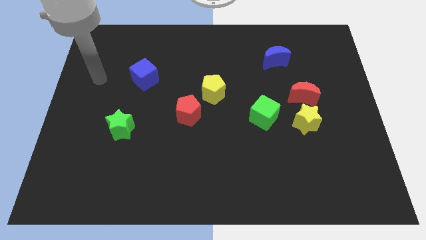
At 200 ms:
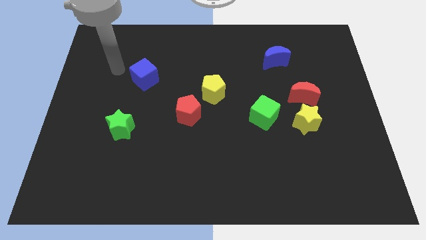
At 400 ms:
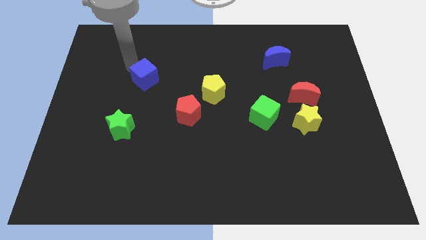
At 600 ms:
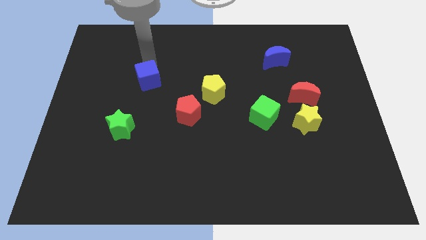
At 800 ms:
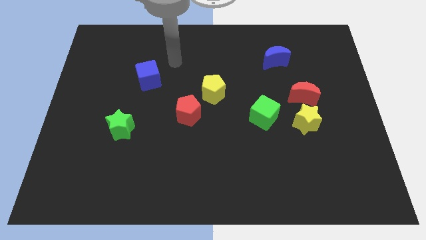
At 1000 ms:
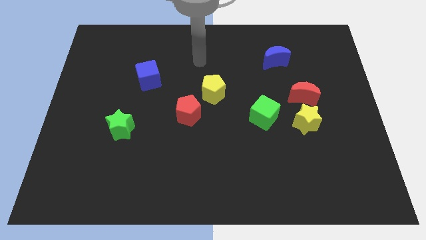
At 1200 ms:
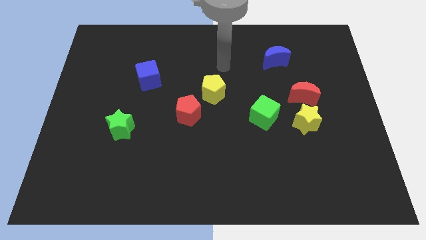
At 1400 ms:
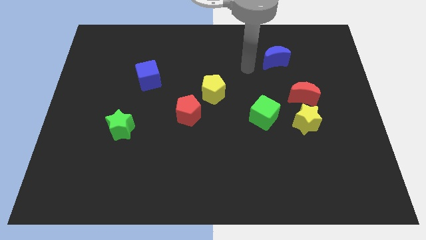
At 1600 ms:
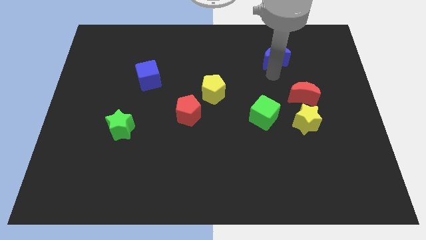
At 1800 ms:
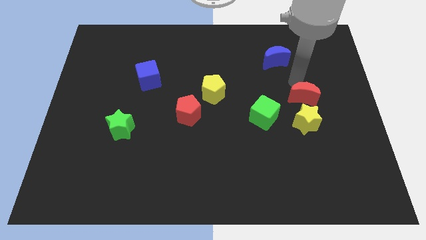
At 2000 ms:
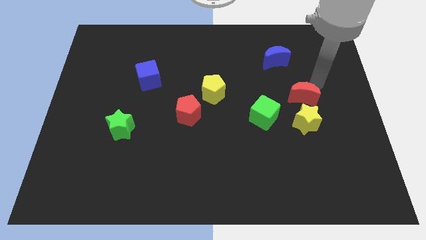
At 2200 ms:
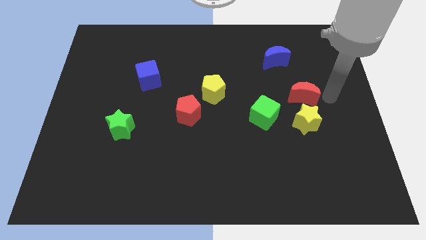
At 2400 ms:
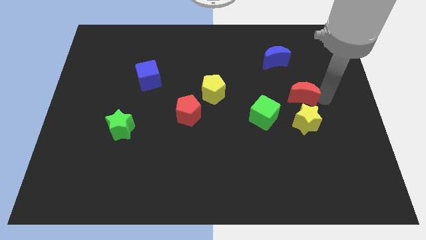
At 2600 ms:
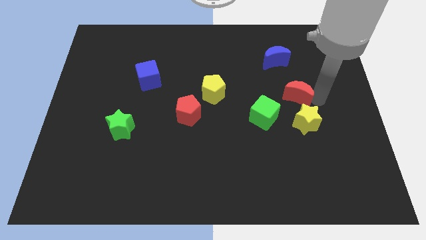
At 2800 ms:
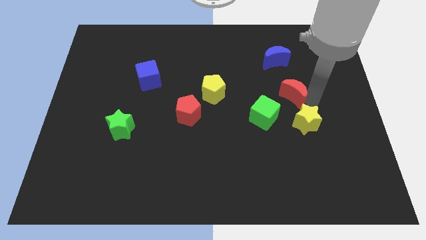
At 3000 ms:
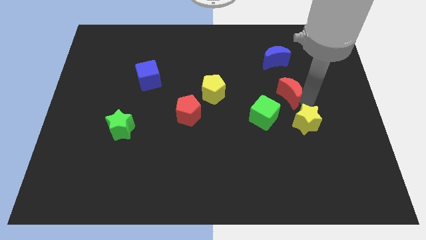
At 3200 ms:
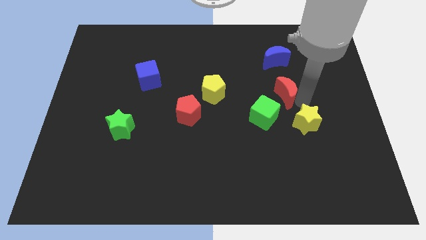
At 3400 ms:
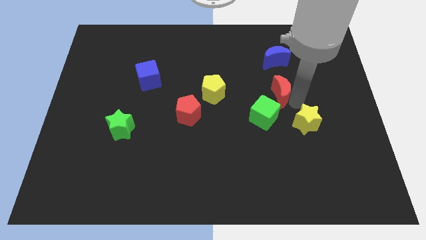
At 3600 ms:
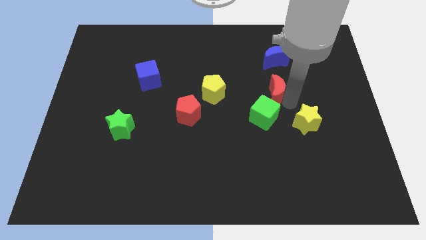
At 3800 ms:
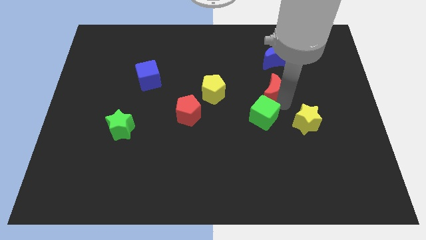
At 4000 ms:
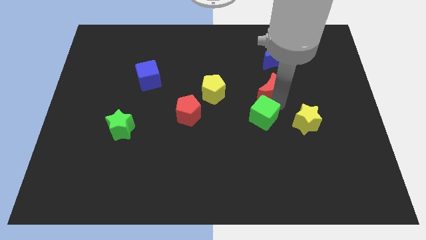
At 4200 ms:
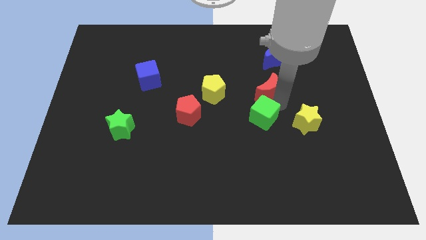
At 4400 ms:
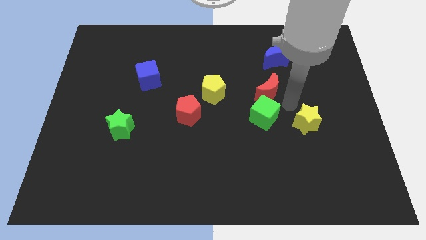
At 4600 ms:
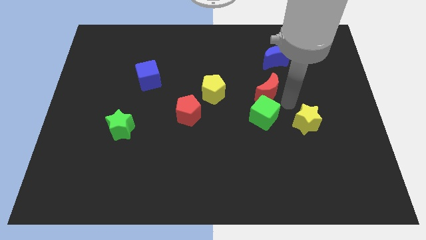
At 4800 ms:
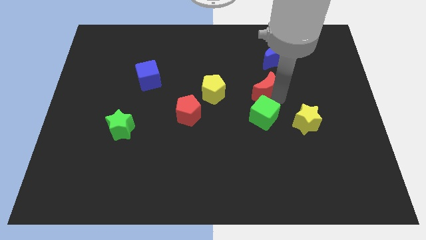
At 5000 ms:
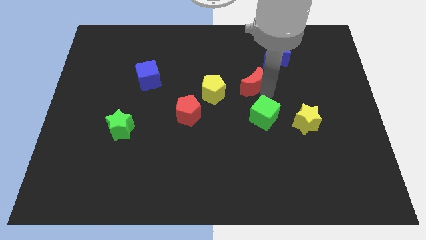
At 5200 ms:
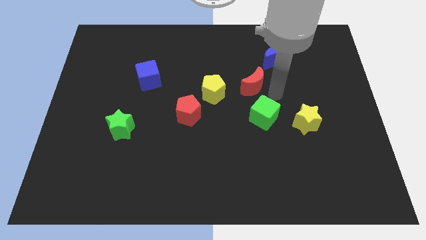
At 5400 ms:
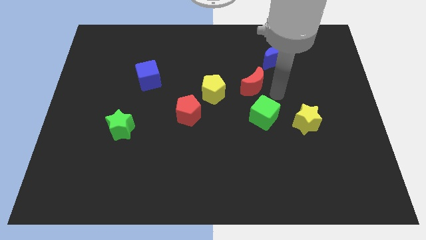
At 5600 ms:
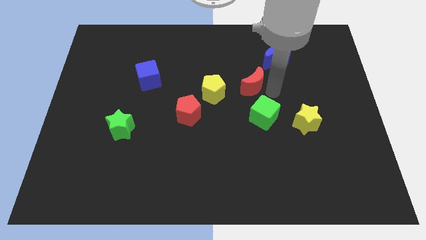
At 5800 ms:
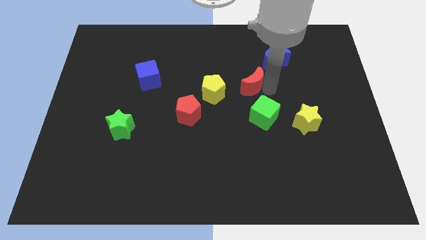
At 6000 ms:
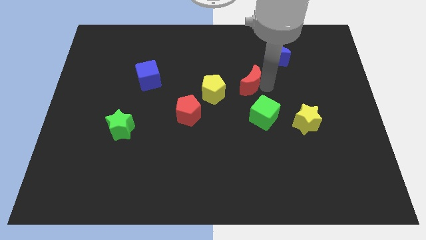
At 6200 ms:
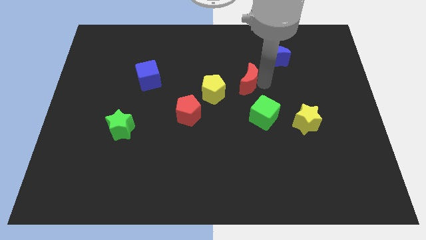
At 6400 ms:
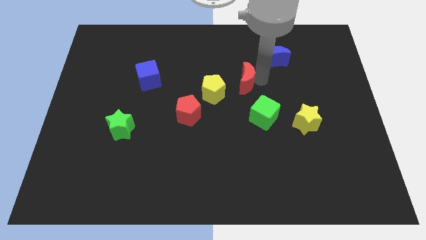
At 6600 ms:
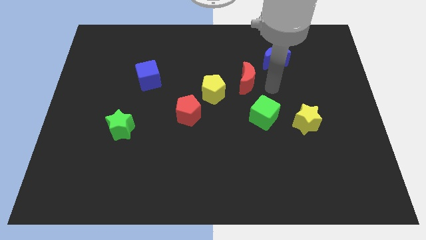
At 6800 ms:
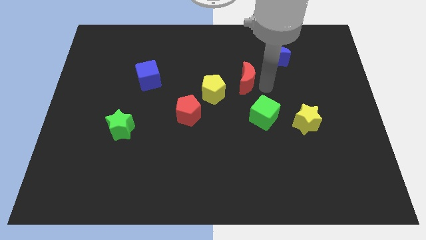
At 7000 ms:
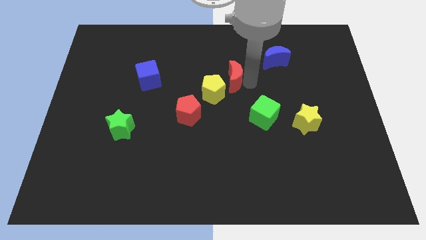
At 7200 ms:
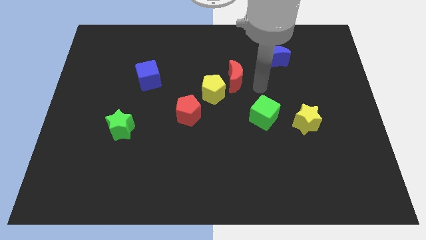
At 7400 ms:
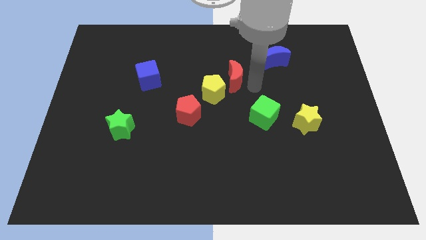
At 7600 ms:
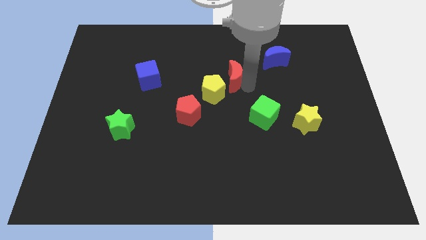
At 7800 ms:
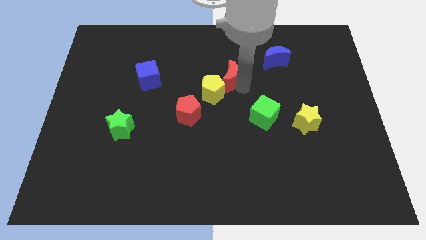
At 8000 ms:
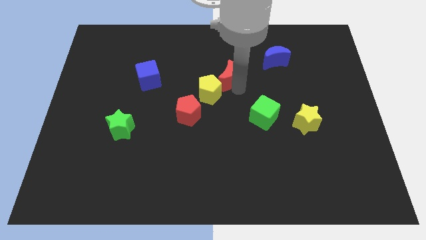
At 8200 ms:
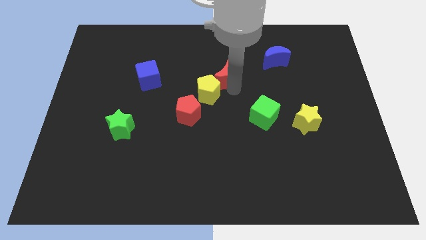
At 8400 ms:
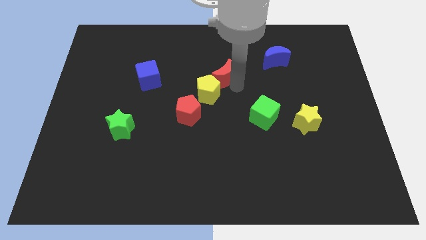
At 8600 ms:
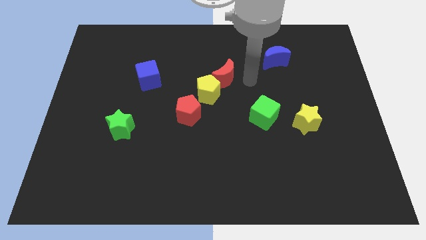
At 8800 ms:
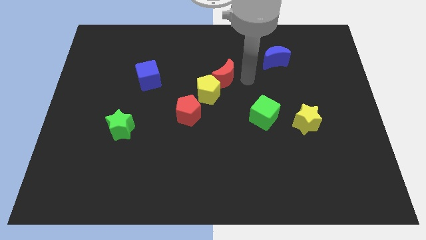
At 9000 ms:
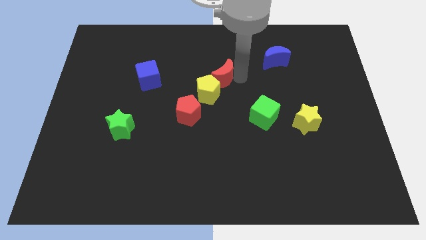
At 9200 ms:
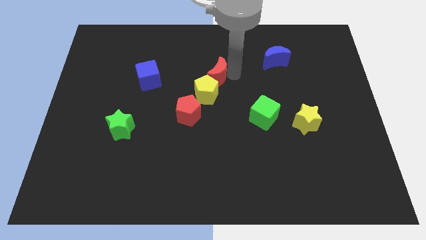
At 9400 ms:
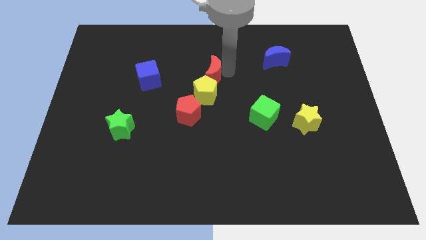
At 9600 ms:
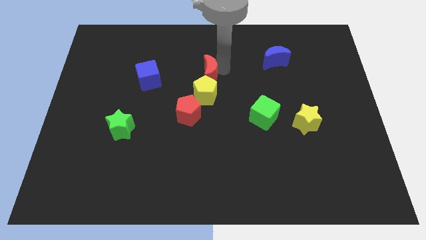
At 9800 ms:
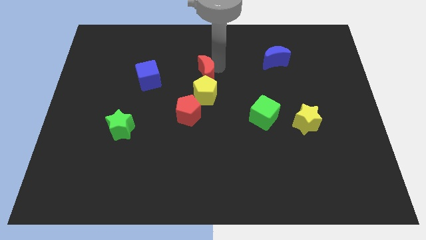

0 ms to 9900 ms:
push the red moon to the top left side of the yellow pentagon

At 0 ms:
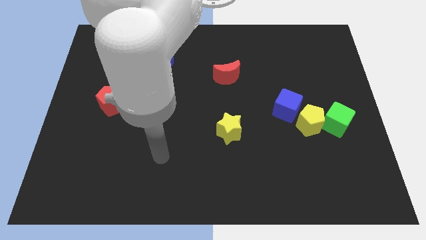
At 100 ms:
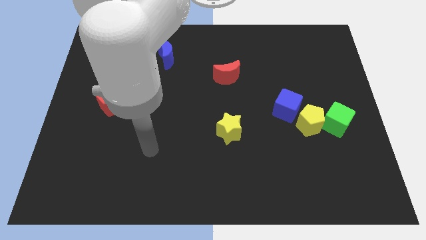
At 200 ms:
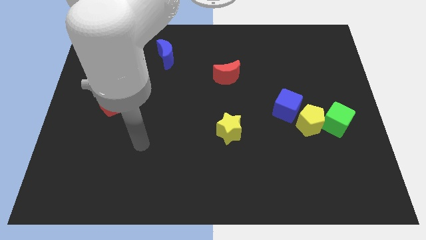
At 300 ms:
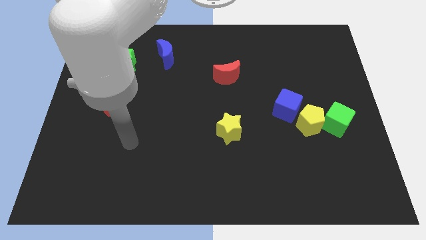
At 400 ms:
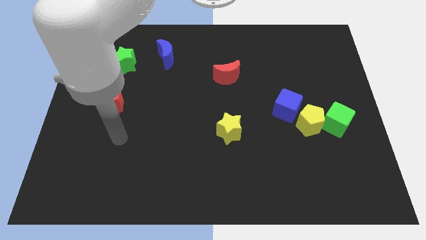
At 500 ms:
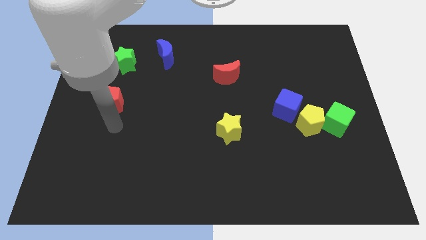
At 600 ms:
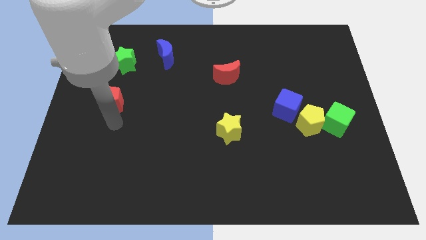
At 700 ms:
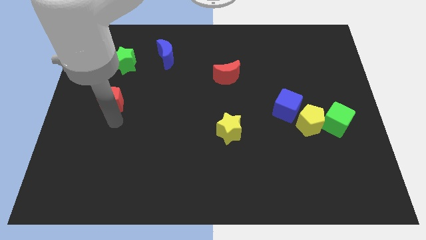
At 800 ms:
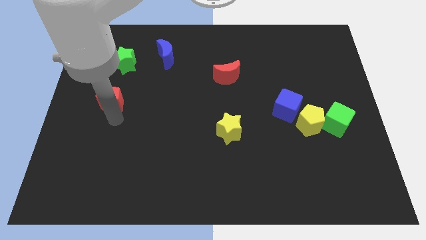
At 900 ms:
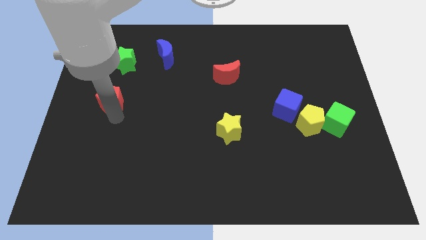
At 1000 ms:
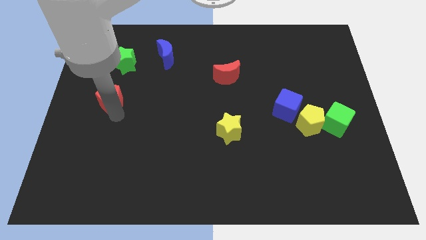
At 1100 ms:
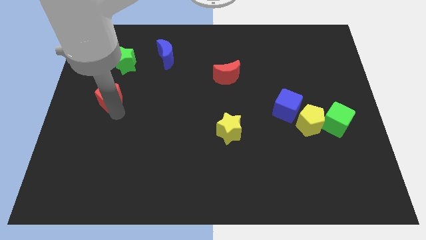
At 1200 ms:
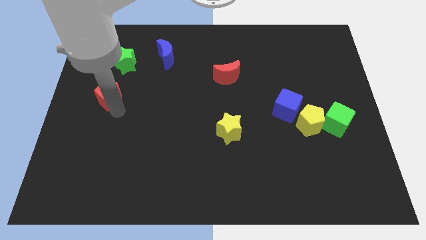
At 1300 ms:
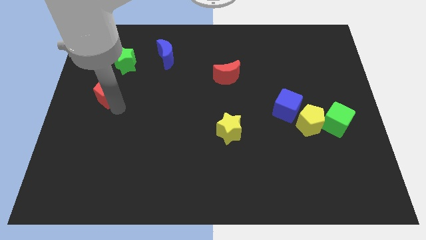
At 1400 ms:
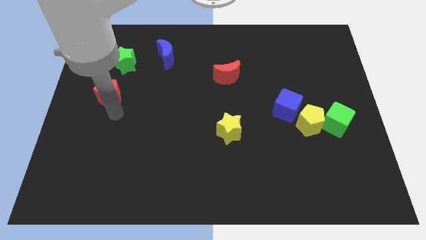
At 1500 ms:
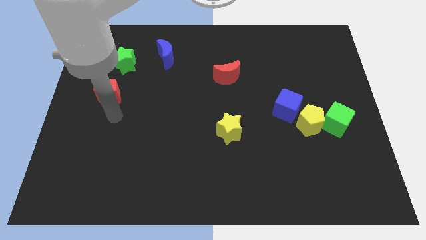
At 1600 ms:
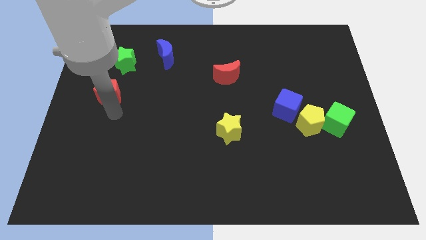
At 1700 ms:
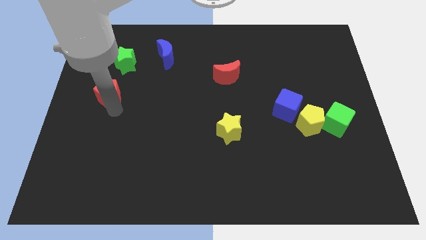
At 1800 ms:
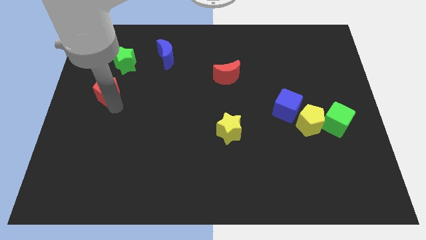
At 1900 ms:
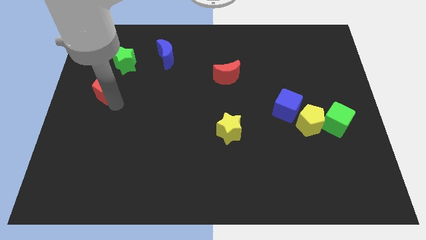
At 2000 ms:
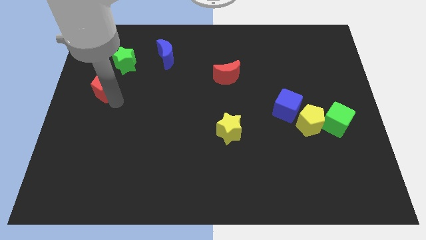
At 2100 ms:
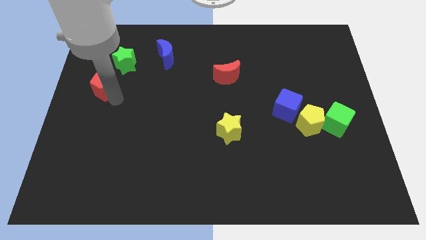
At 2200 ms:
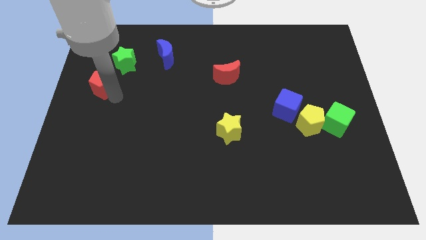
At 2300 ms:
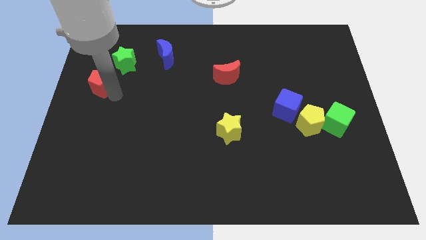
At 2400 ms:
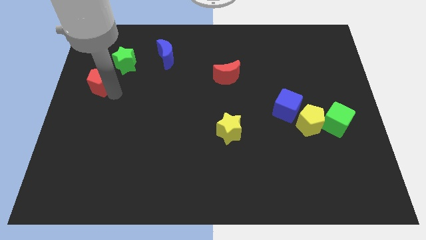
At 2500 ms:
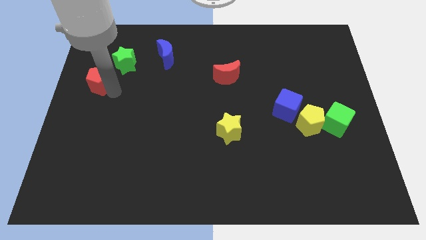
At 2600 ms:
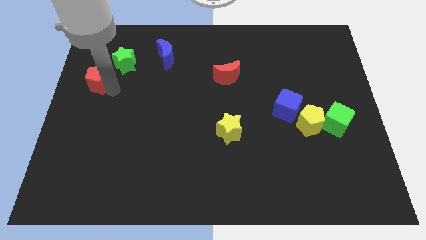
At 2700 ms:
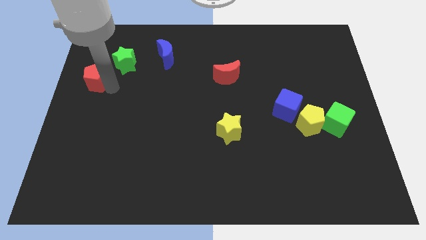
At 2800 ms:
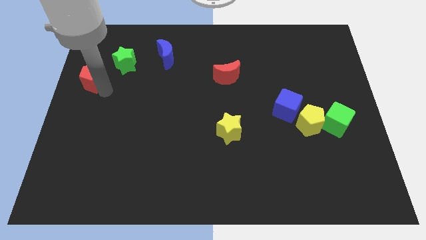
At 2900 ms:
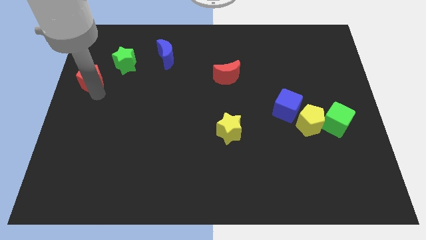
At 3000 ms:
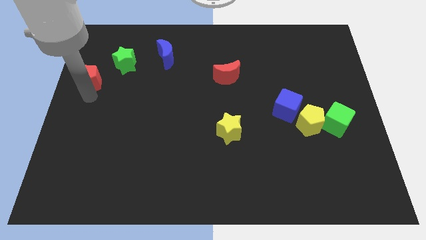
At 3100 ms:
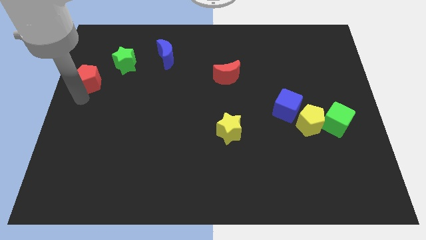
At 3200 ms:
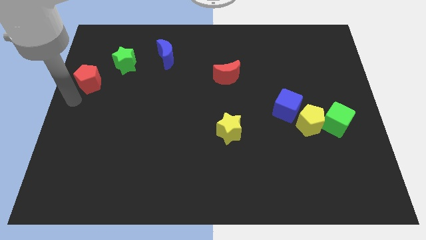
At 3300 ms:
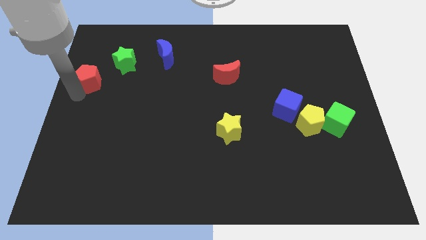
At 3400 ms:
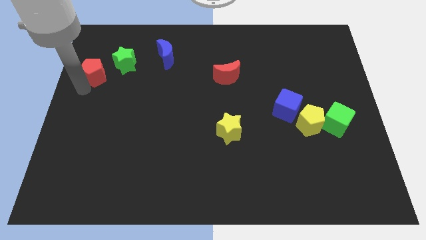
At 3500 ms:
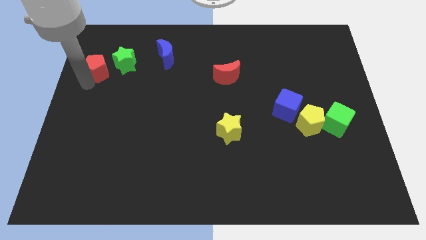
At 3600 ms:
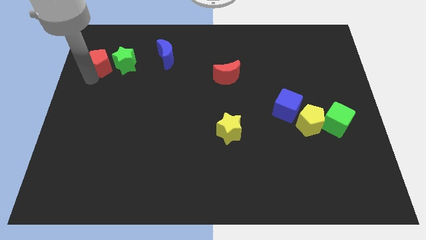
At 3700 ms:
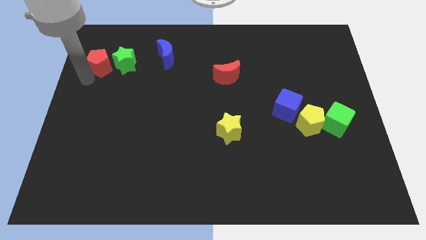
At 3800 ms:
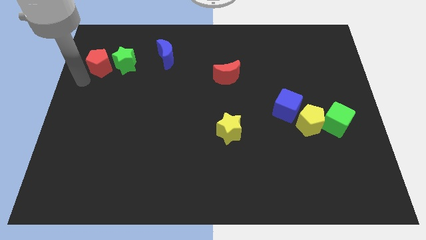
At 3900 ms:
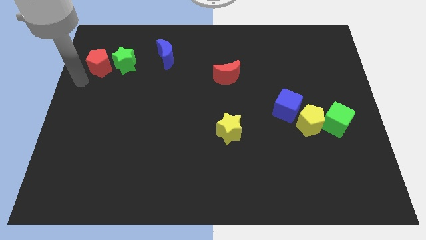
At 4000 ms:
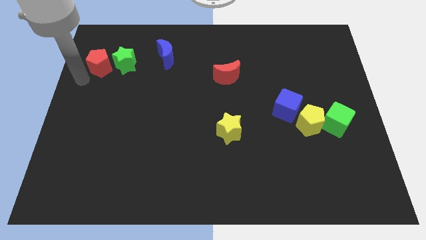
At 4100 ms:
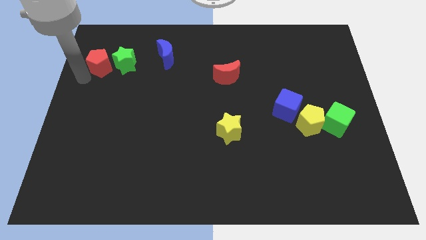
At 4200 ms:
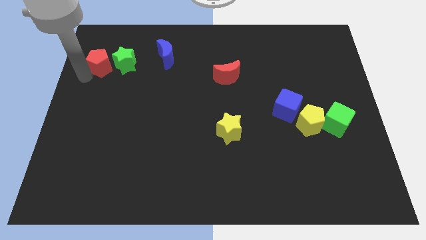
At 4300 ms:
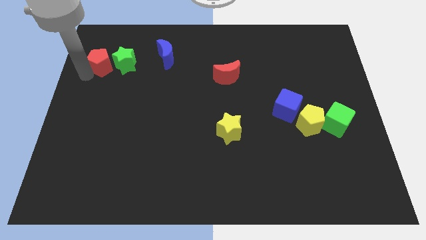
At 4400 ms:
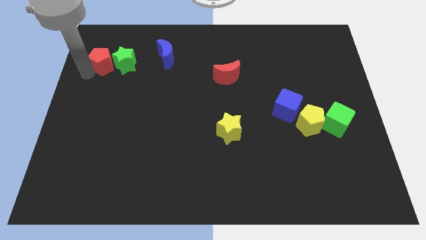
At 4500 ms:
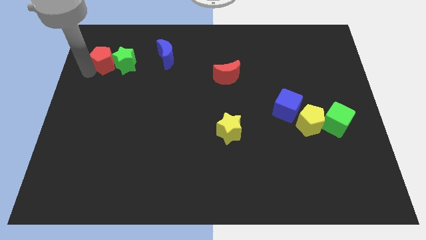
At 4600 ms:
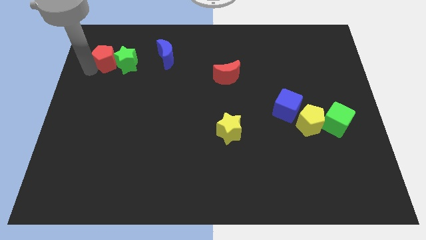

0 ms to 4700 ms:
move the red pentagon to the left of the blue moon
